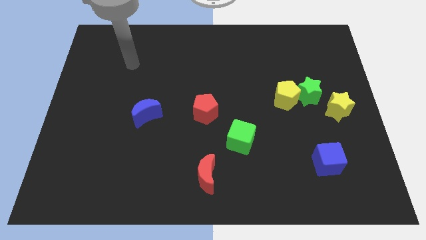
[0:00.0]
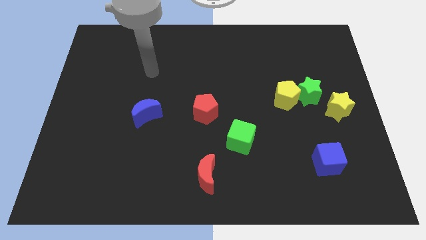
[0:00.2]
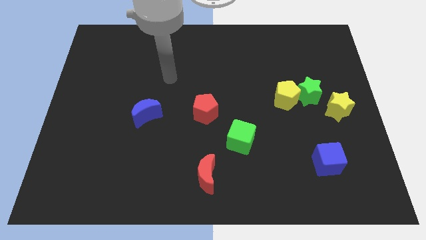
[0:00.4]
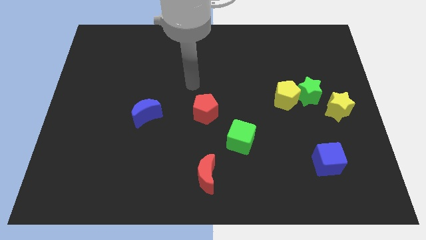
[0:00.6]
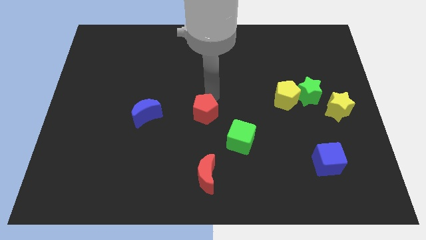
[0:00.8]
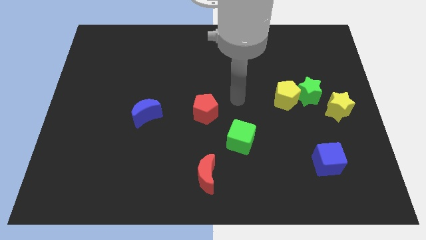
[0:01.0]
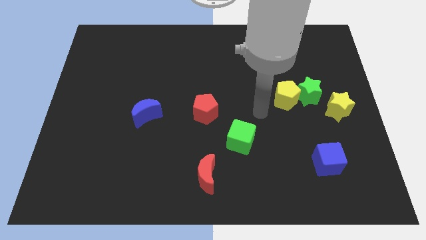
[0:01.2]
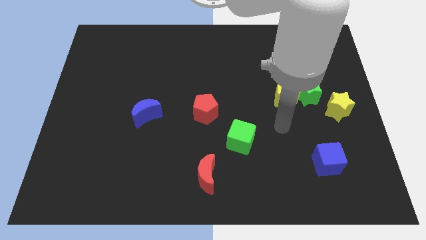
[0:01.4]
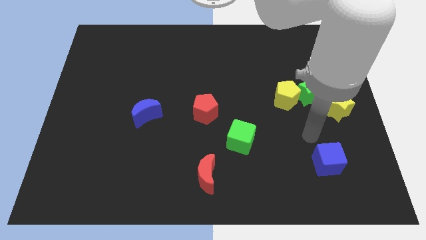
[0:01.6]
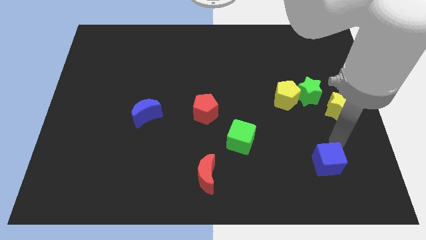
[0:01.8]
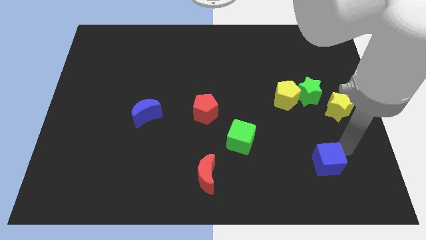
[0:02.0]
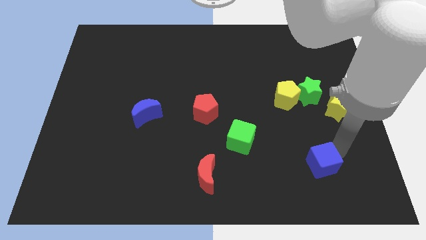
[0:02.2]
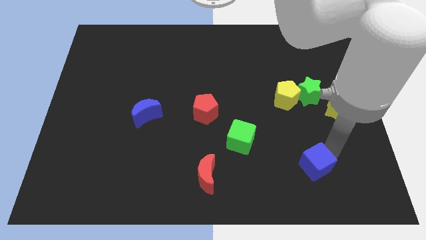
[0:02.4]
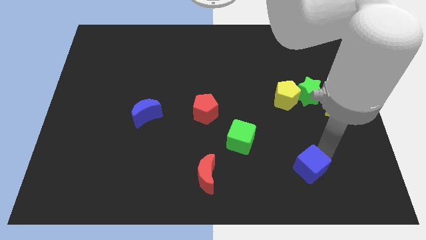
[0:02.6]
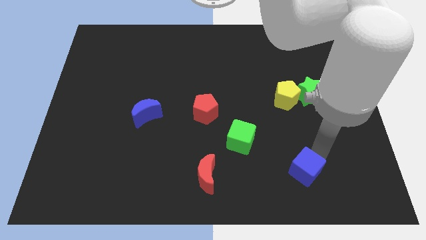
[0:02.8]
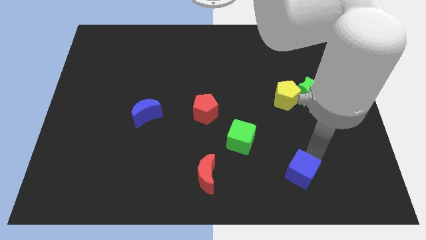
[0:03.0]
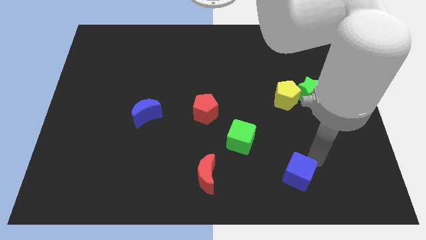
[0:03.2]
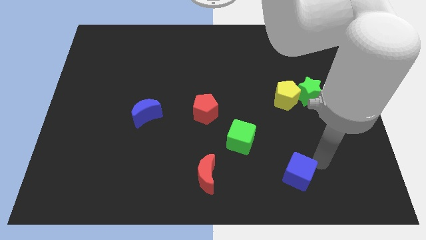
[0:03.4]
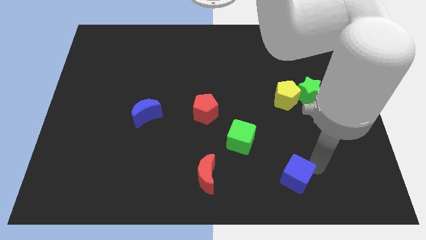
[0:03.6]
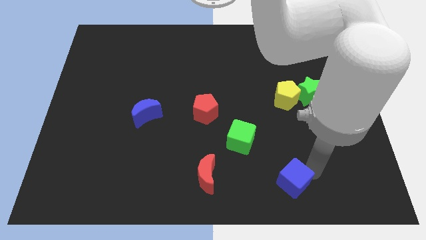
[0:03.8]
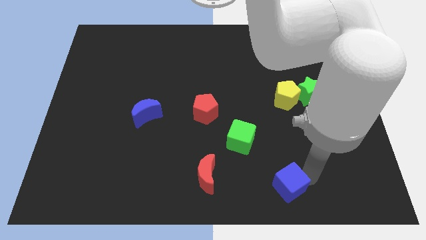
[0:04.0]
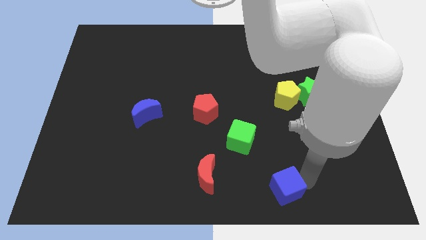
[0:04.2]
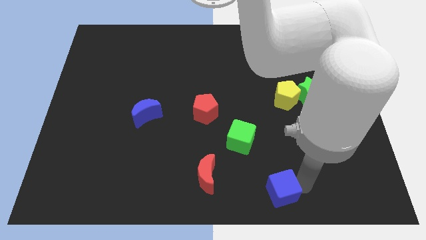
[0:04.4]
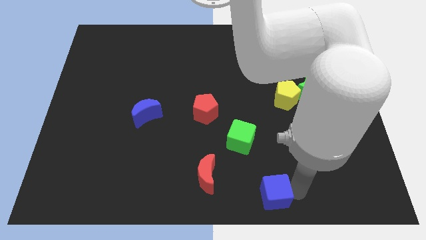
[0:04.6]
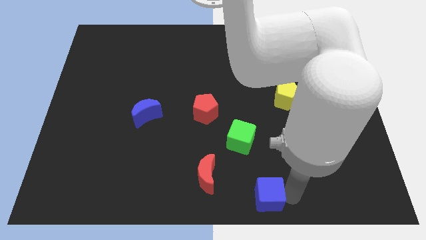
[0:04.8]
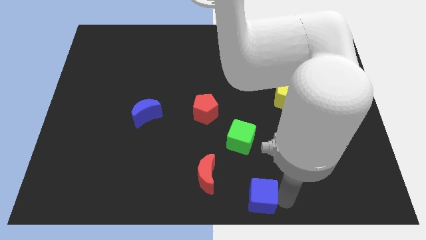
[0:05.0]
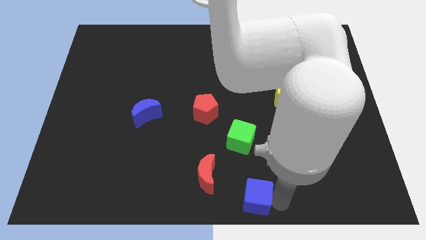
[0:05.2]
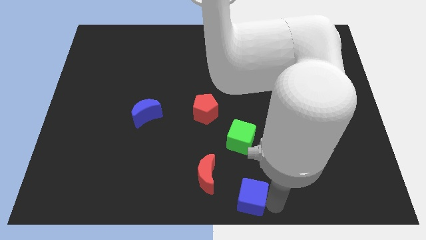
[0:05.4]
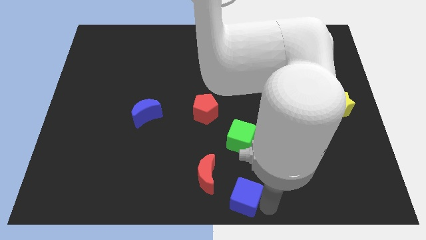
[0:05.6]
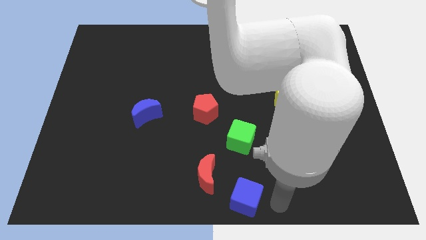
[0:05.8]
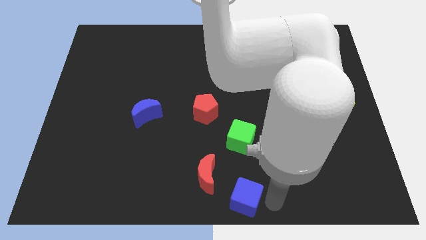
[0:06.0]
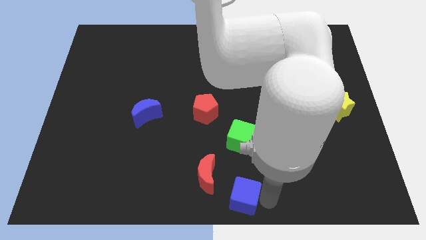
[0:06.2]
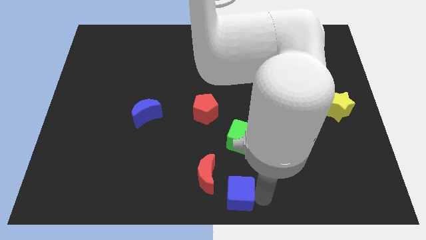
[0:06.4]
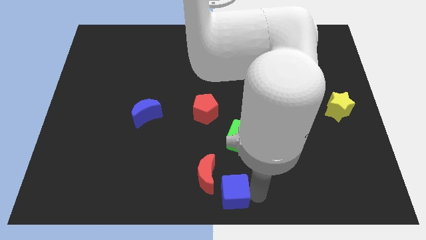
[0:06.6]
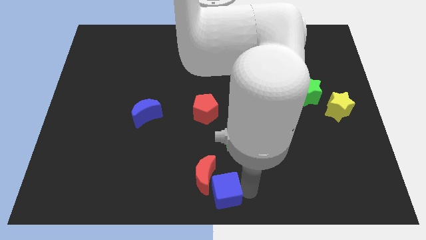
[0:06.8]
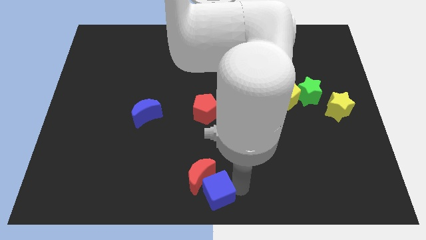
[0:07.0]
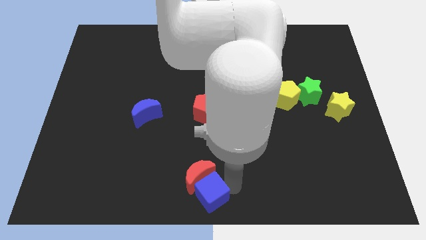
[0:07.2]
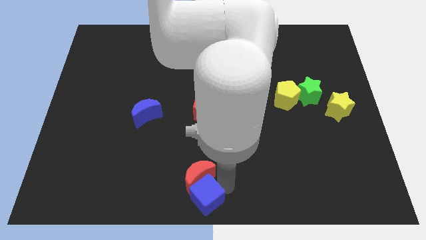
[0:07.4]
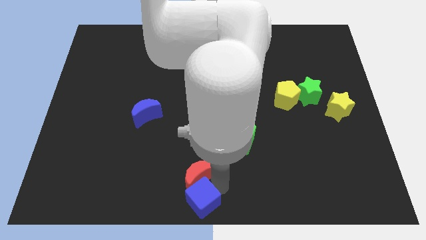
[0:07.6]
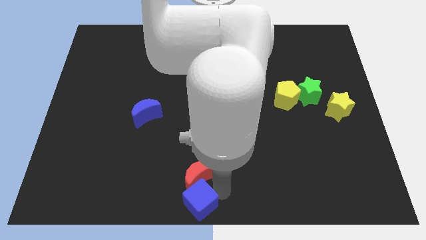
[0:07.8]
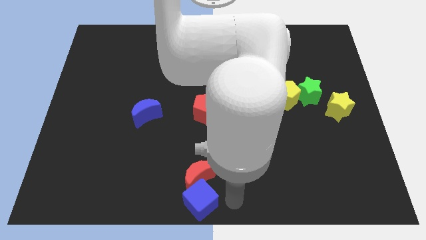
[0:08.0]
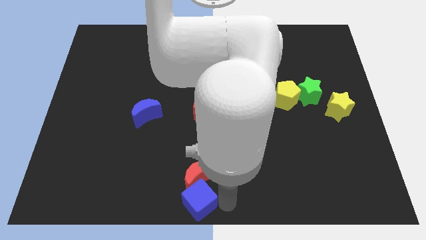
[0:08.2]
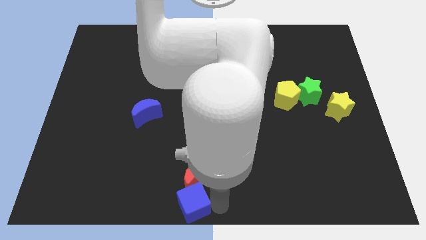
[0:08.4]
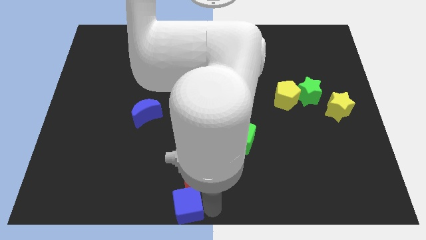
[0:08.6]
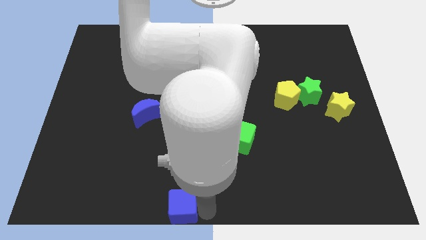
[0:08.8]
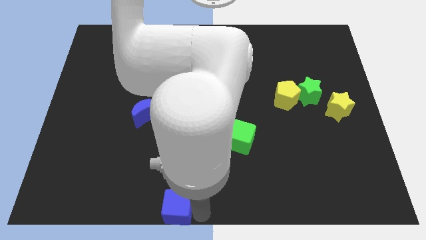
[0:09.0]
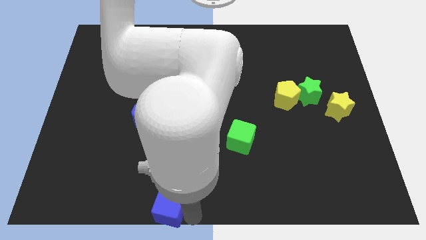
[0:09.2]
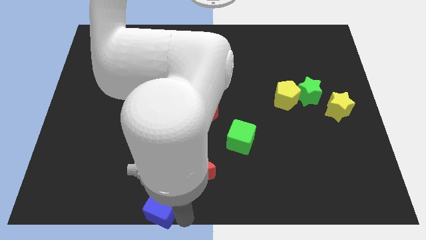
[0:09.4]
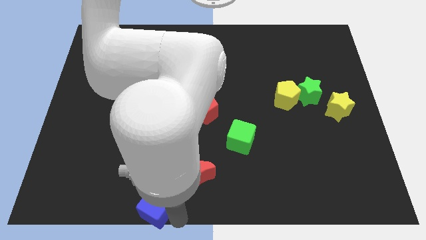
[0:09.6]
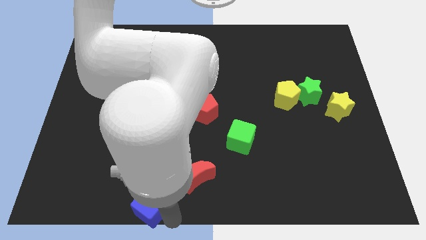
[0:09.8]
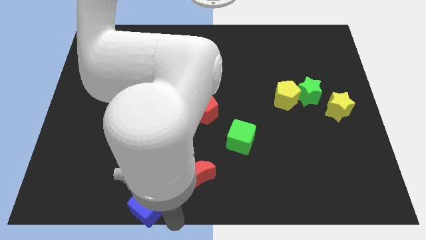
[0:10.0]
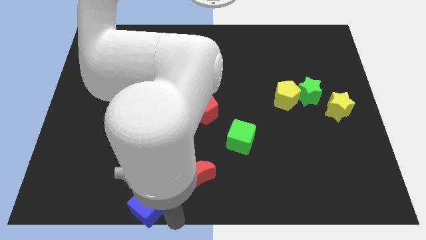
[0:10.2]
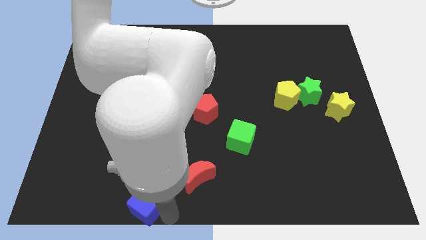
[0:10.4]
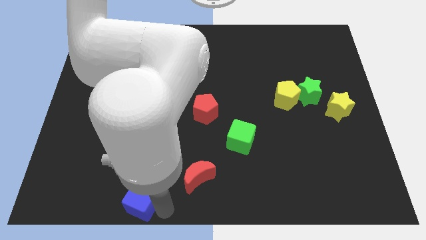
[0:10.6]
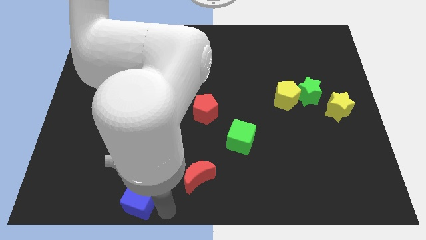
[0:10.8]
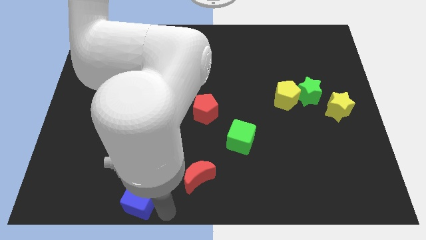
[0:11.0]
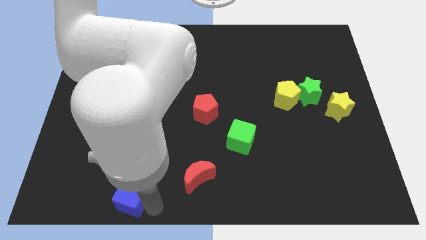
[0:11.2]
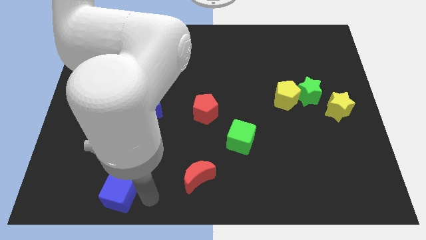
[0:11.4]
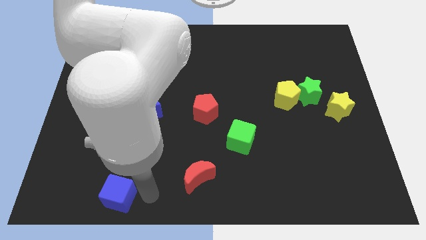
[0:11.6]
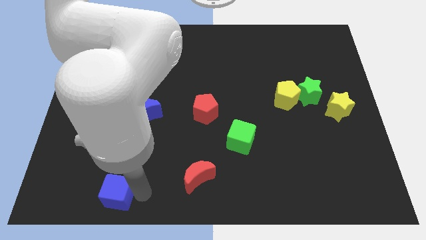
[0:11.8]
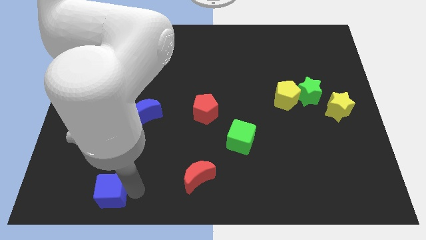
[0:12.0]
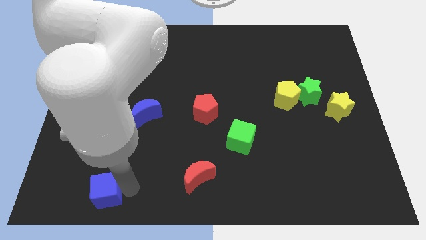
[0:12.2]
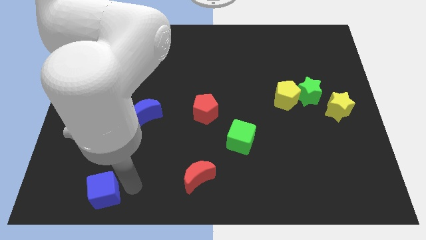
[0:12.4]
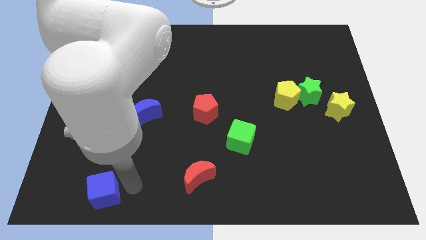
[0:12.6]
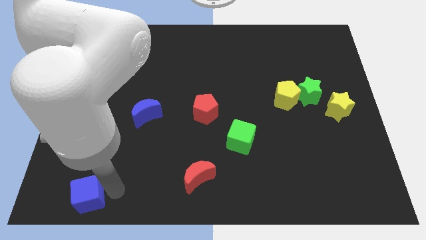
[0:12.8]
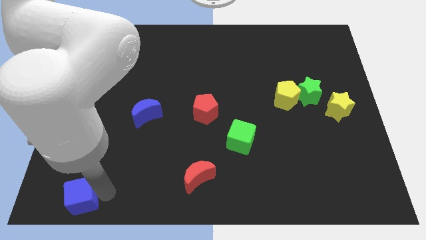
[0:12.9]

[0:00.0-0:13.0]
push the blue cube to the bottom left
